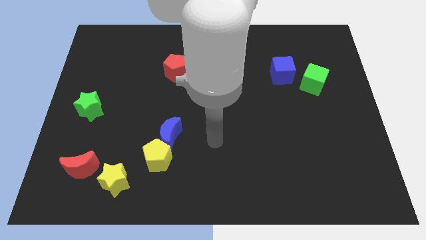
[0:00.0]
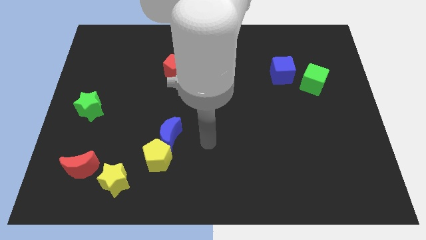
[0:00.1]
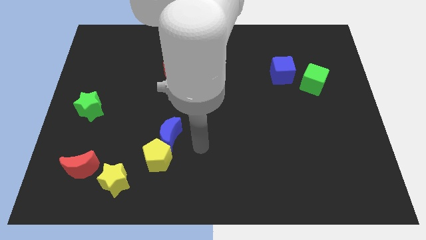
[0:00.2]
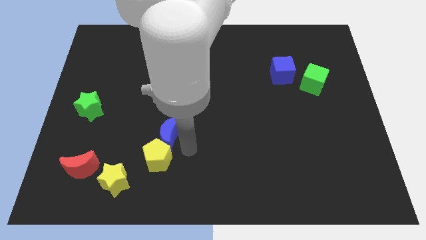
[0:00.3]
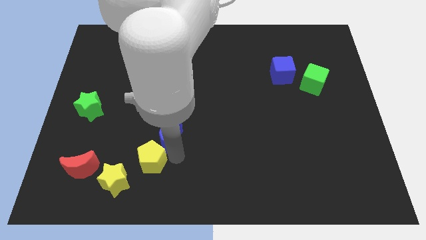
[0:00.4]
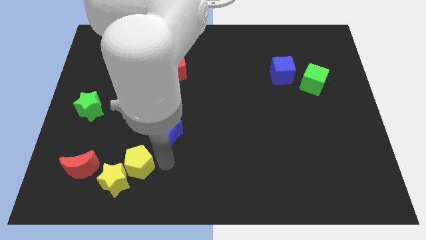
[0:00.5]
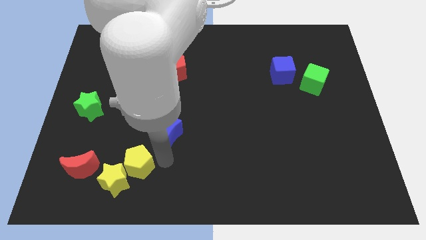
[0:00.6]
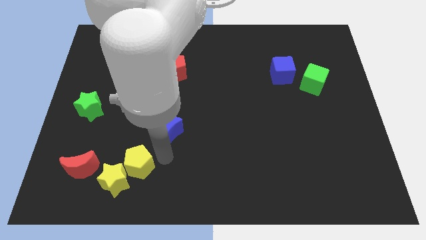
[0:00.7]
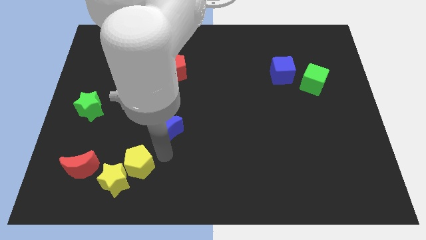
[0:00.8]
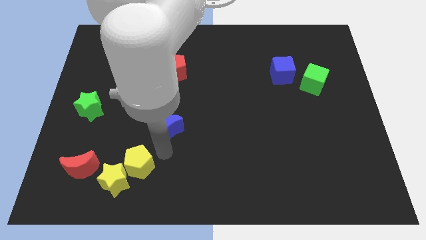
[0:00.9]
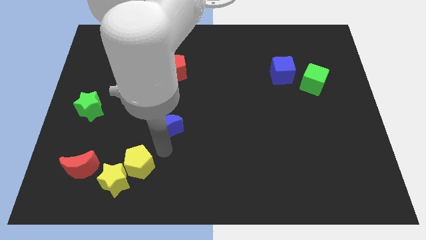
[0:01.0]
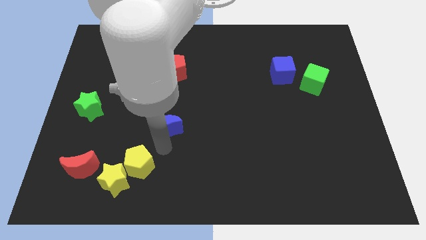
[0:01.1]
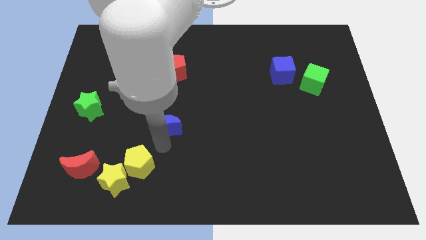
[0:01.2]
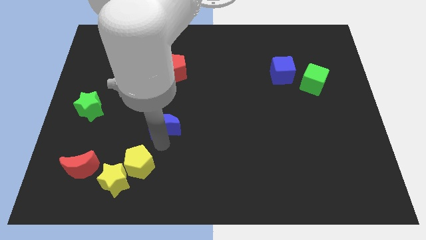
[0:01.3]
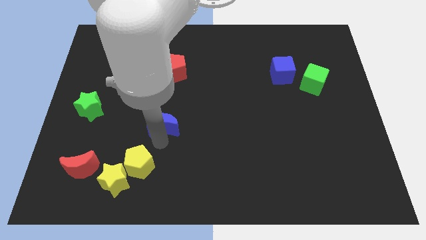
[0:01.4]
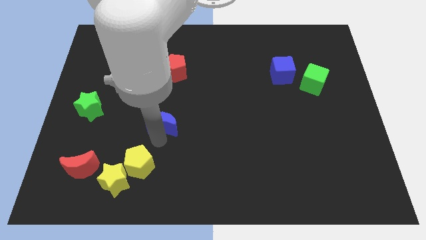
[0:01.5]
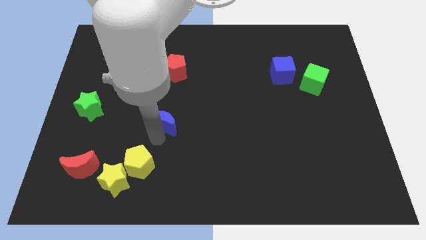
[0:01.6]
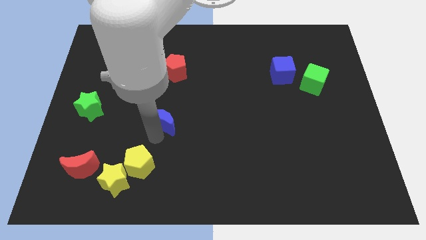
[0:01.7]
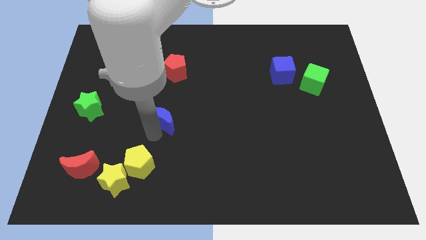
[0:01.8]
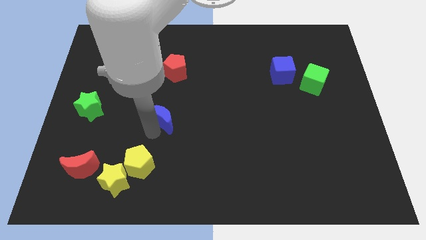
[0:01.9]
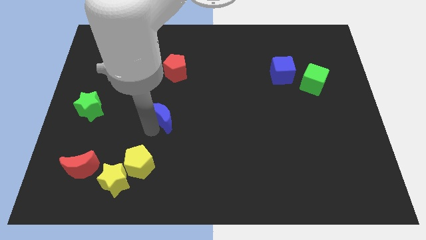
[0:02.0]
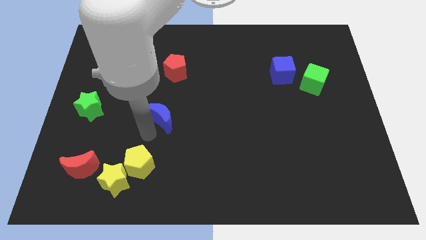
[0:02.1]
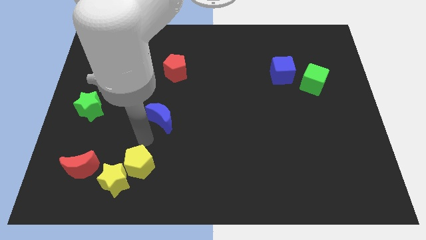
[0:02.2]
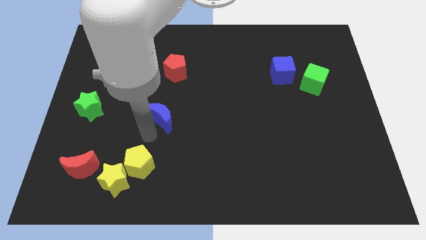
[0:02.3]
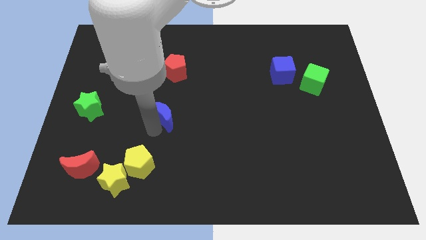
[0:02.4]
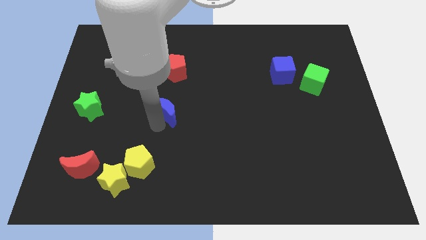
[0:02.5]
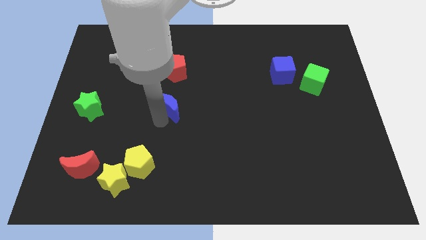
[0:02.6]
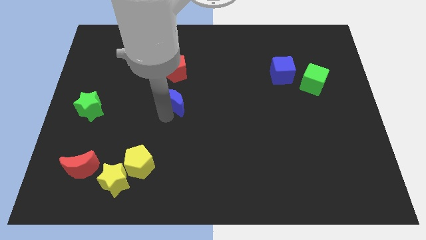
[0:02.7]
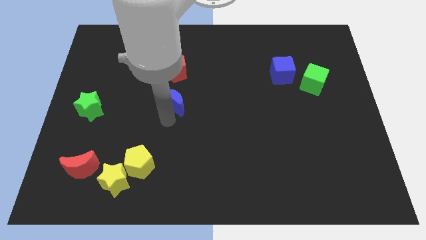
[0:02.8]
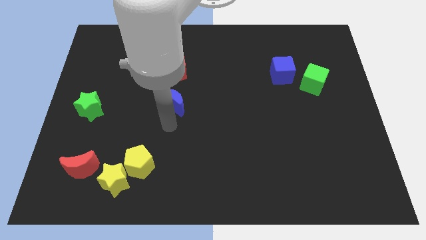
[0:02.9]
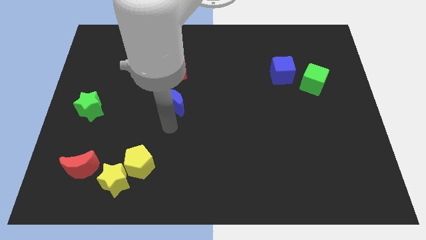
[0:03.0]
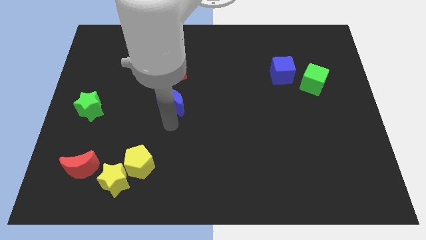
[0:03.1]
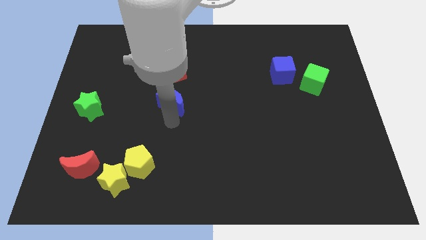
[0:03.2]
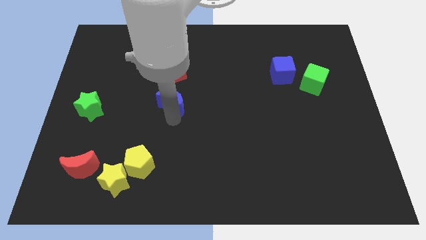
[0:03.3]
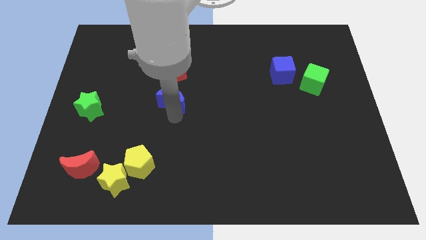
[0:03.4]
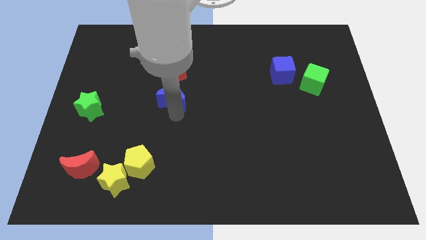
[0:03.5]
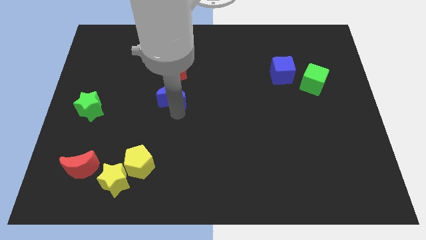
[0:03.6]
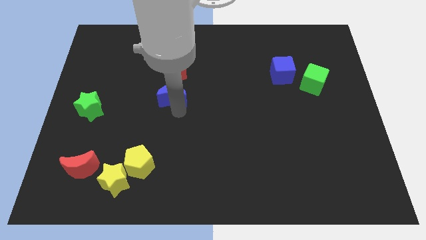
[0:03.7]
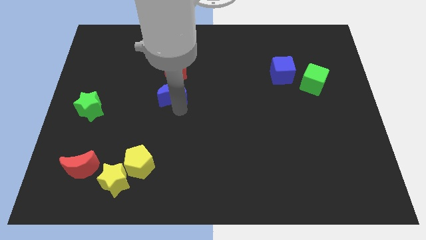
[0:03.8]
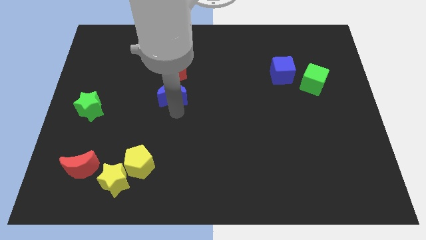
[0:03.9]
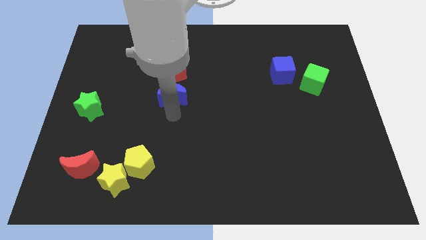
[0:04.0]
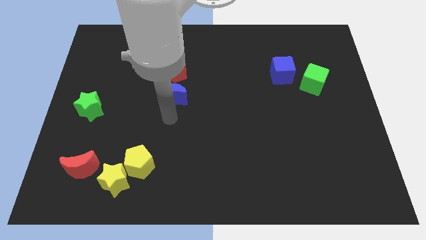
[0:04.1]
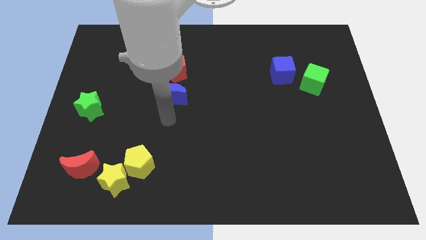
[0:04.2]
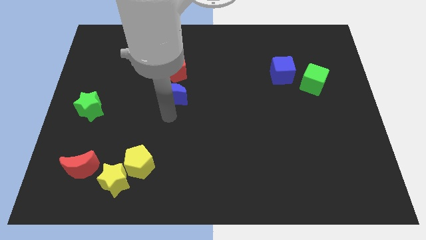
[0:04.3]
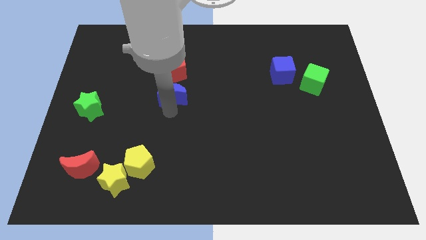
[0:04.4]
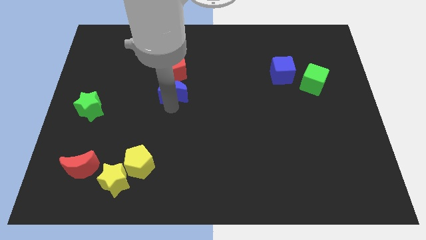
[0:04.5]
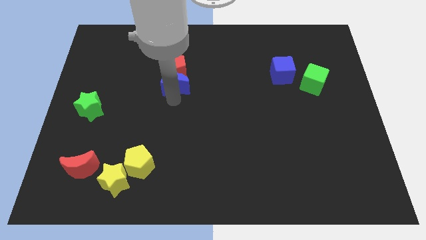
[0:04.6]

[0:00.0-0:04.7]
push the blue moon next to the red pentagon

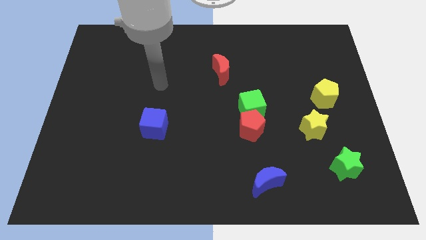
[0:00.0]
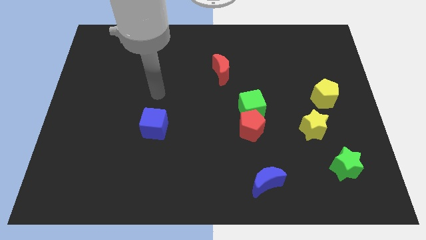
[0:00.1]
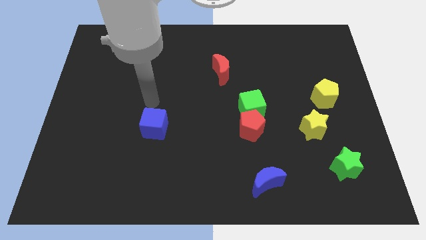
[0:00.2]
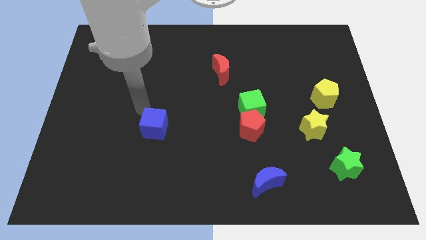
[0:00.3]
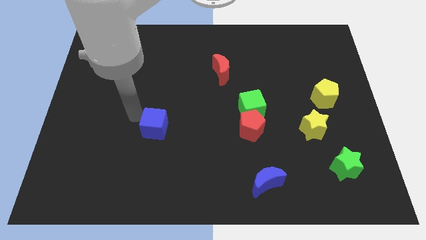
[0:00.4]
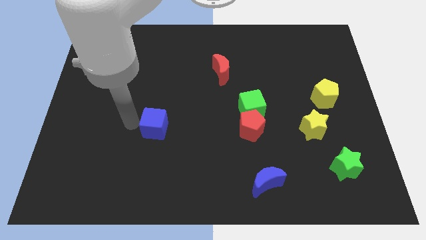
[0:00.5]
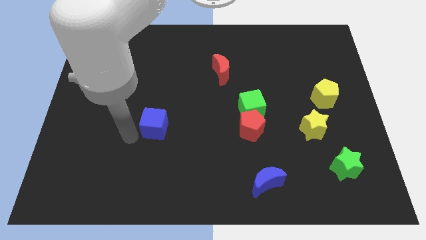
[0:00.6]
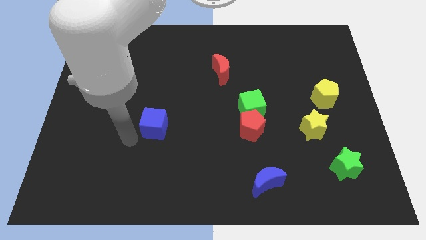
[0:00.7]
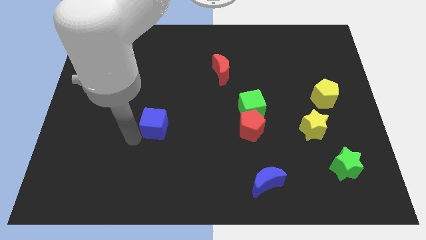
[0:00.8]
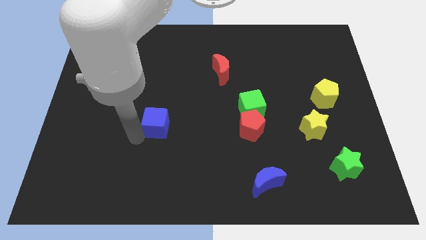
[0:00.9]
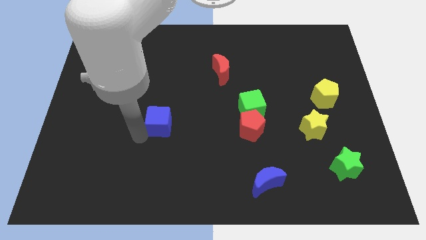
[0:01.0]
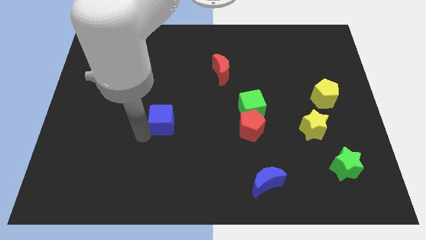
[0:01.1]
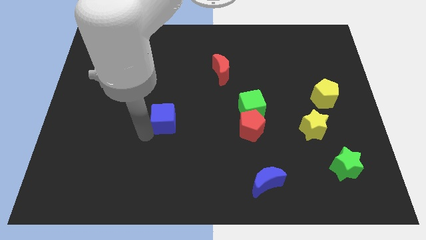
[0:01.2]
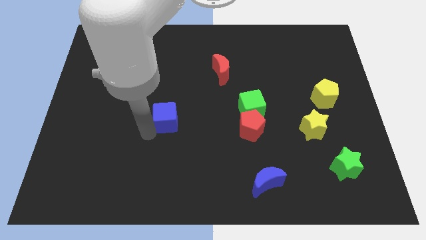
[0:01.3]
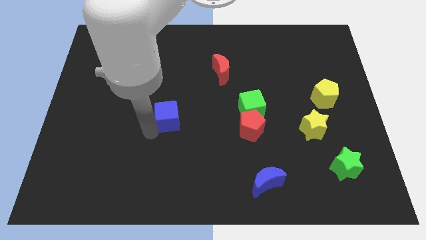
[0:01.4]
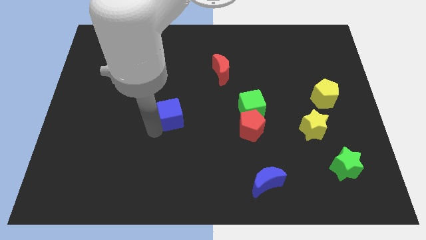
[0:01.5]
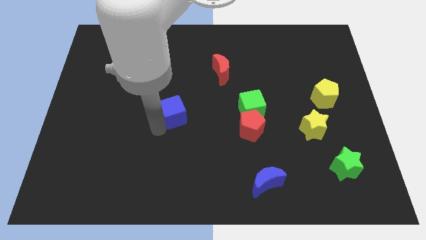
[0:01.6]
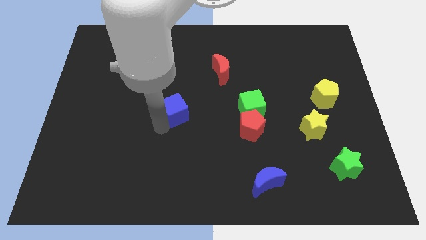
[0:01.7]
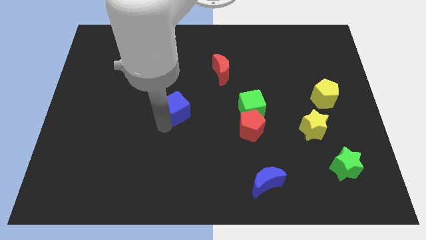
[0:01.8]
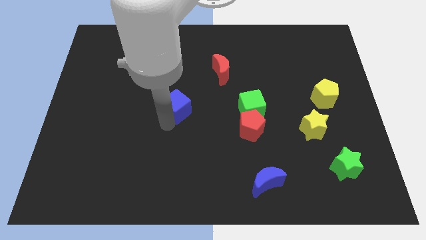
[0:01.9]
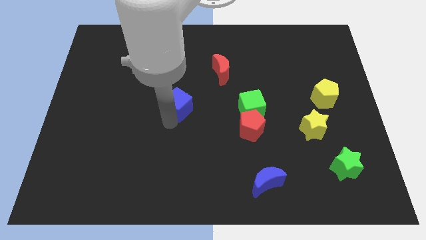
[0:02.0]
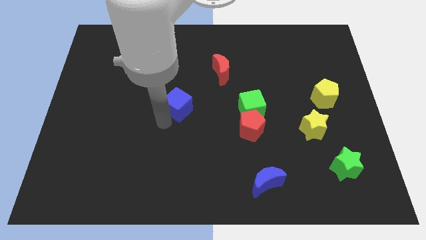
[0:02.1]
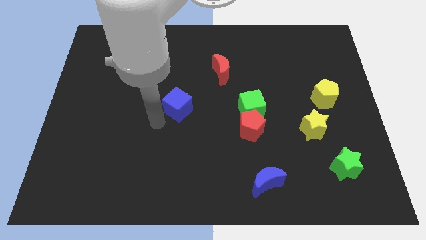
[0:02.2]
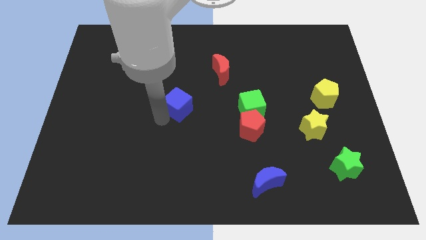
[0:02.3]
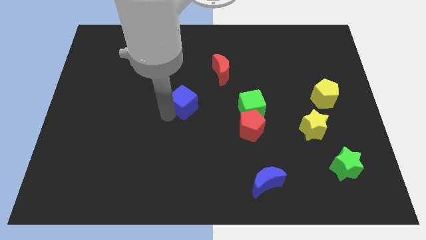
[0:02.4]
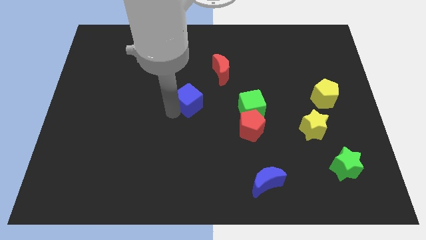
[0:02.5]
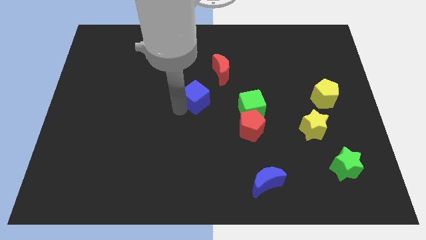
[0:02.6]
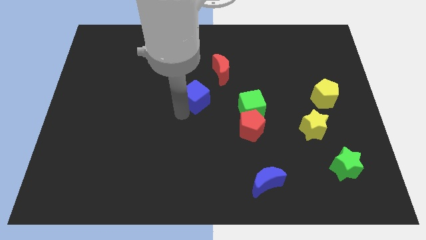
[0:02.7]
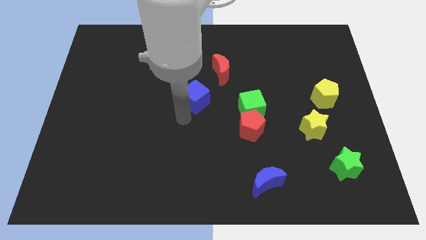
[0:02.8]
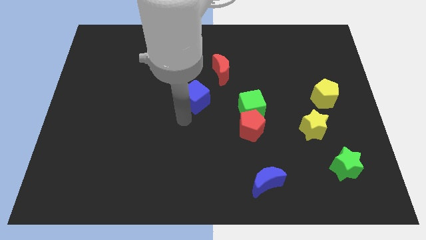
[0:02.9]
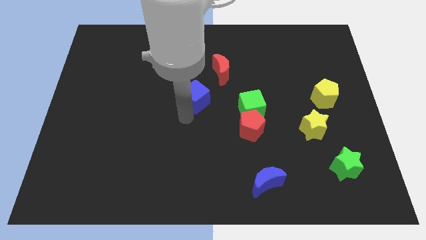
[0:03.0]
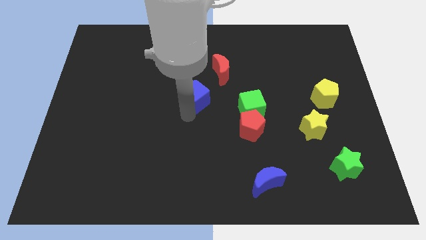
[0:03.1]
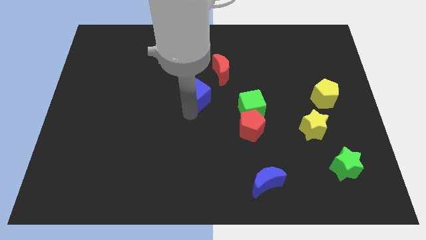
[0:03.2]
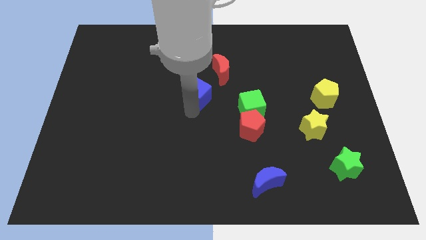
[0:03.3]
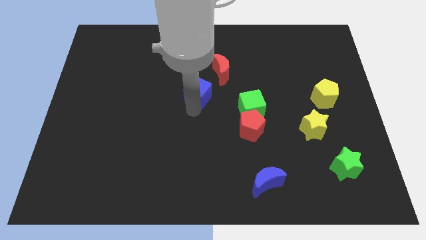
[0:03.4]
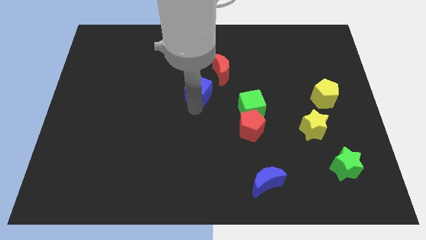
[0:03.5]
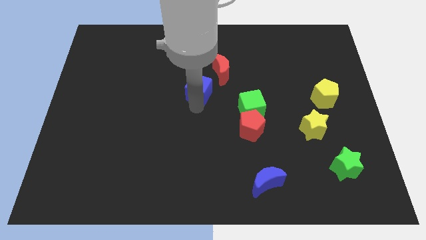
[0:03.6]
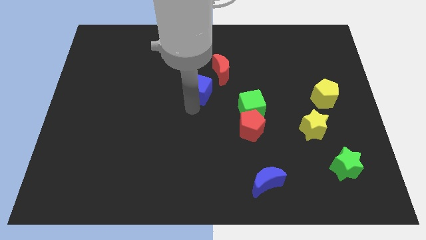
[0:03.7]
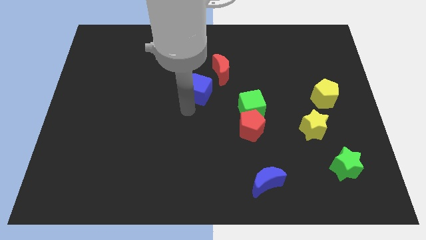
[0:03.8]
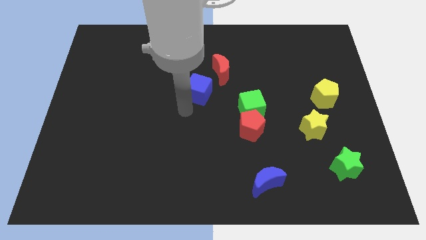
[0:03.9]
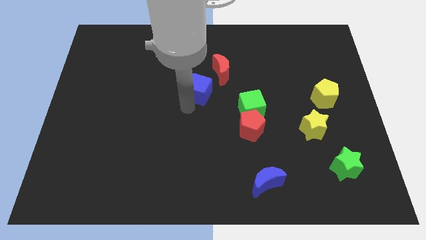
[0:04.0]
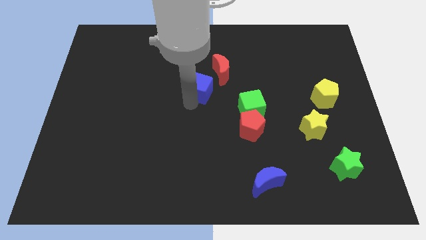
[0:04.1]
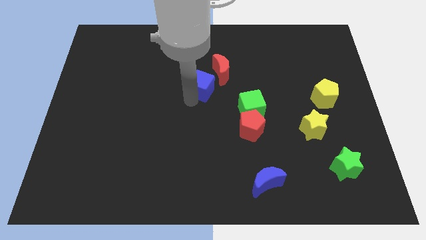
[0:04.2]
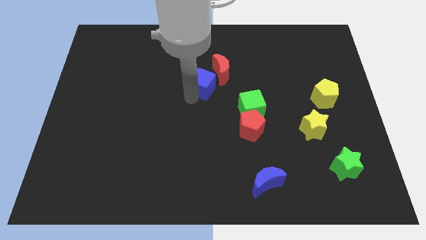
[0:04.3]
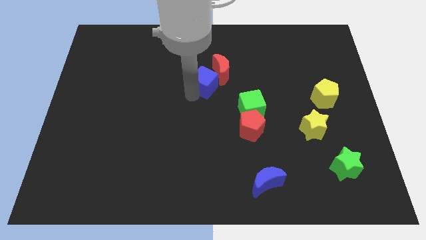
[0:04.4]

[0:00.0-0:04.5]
move the blue cube next to the red moon
